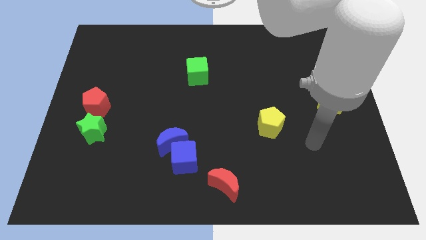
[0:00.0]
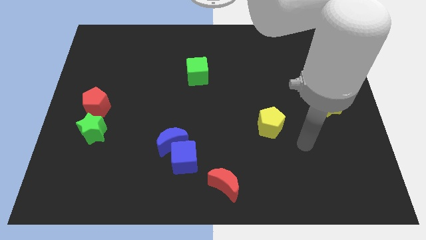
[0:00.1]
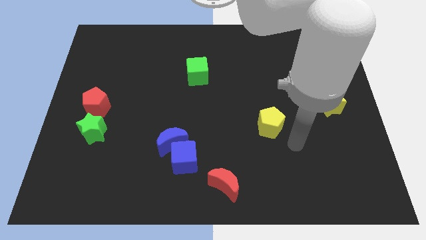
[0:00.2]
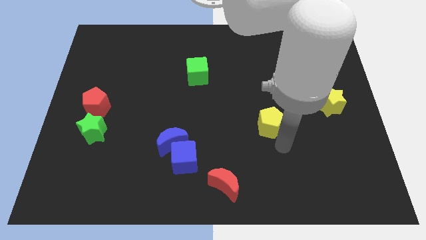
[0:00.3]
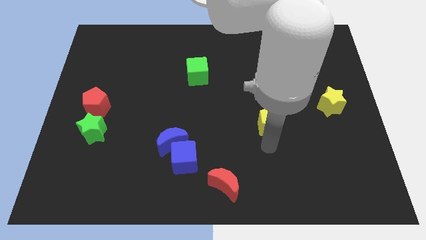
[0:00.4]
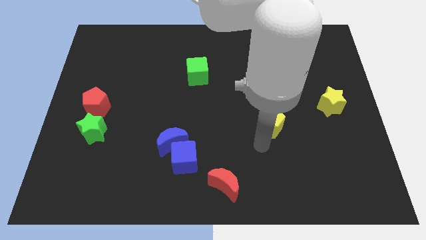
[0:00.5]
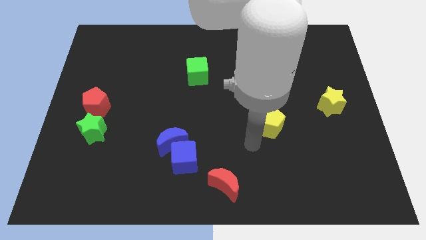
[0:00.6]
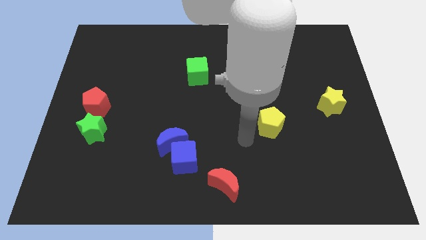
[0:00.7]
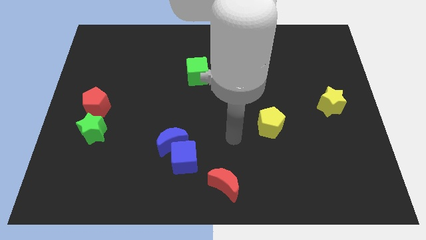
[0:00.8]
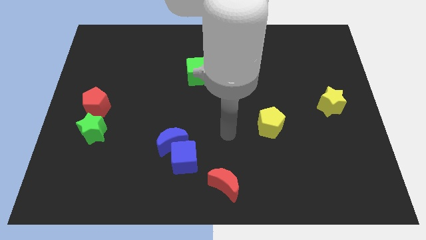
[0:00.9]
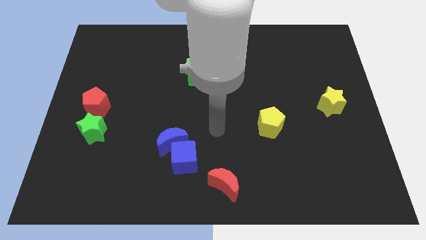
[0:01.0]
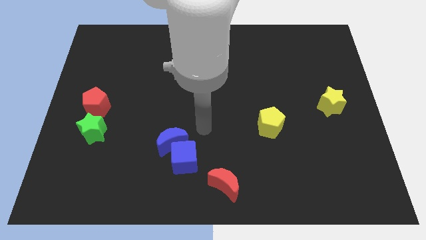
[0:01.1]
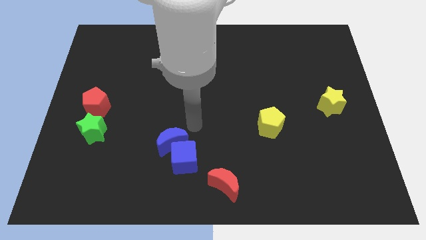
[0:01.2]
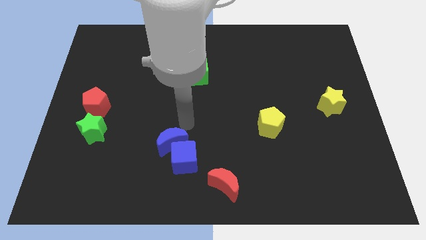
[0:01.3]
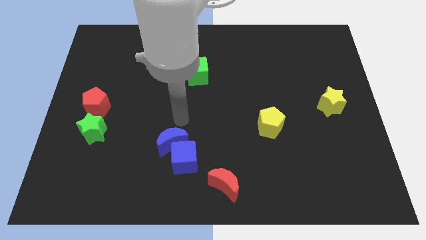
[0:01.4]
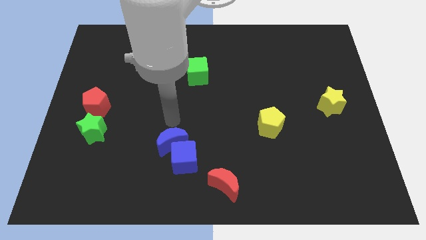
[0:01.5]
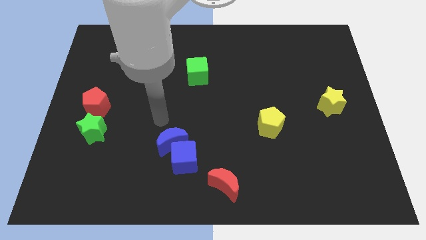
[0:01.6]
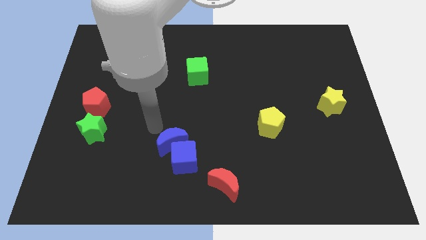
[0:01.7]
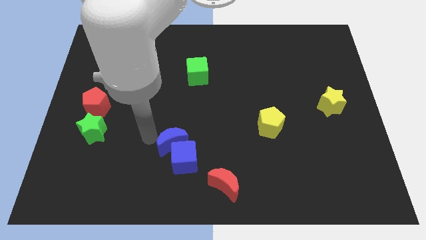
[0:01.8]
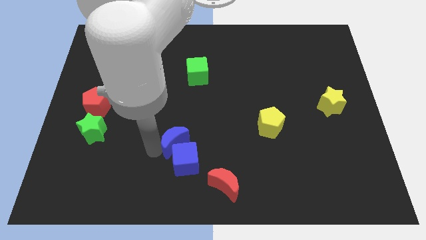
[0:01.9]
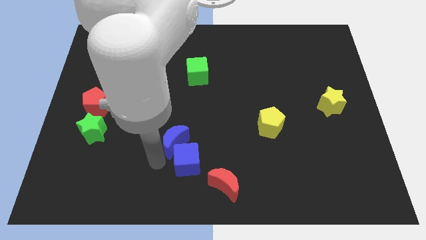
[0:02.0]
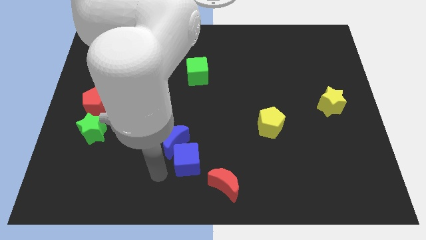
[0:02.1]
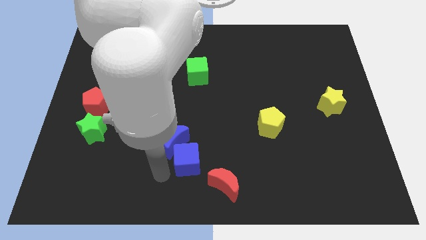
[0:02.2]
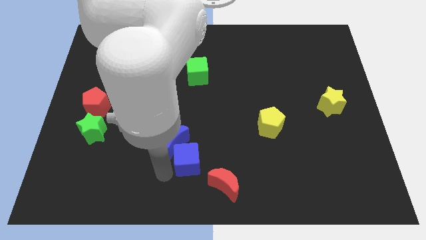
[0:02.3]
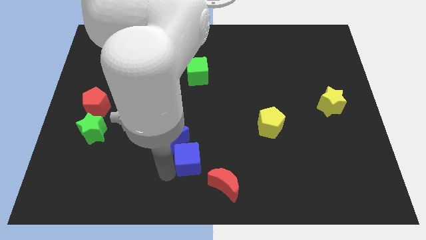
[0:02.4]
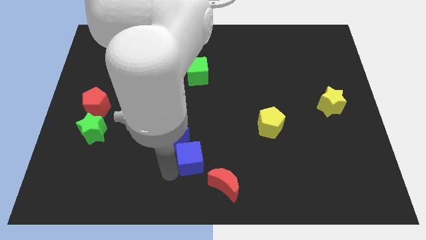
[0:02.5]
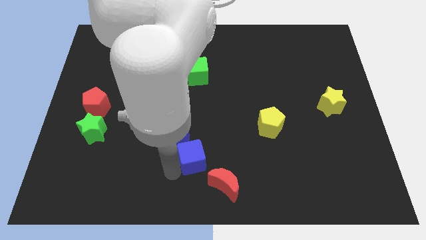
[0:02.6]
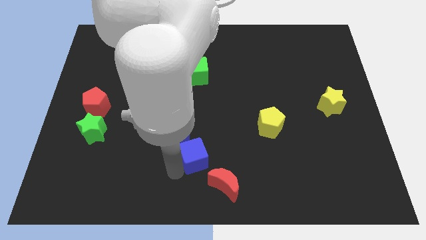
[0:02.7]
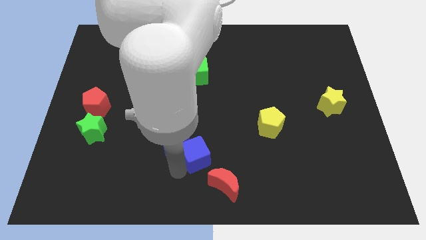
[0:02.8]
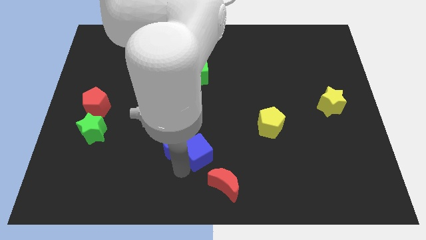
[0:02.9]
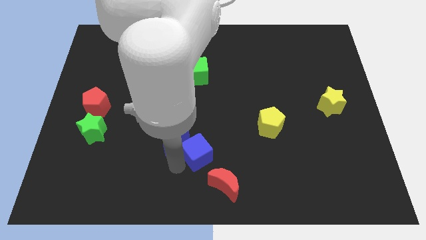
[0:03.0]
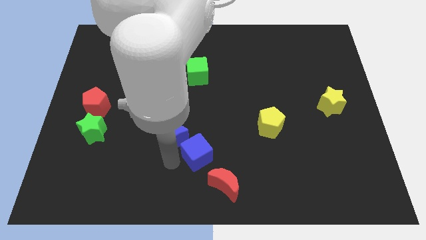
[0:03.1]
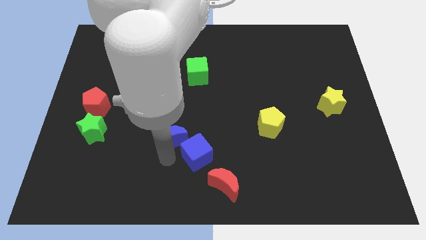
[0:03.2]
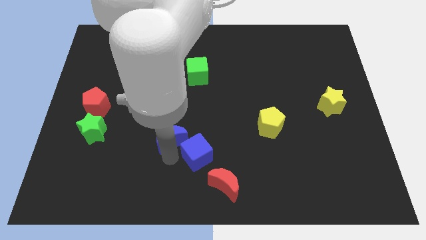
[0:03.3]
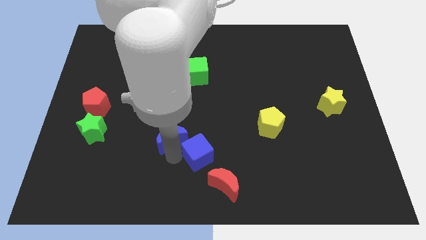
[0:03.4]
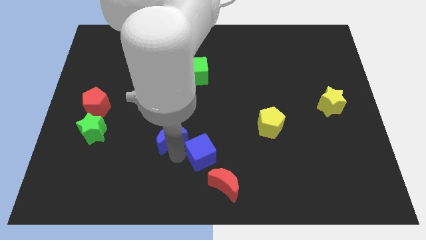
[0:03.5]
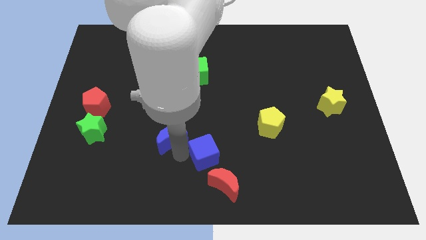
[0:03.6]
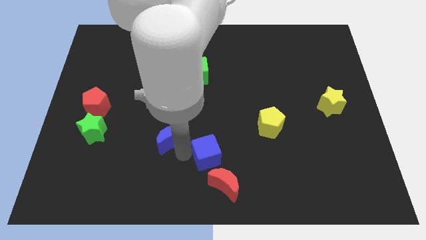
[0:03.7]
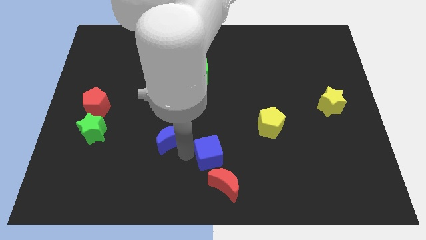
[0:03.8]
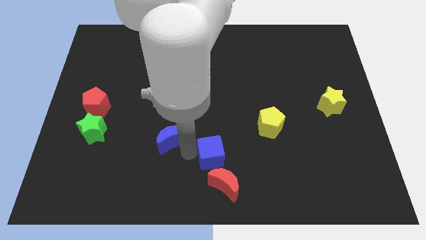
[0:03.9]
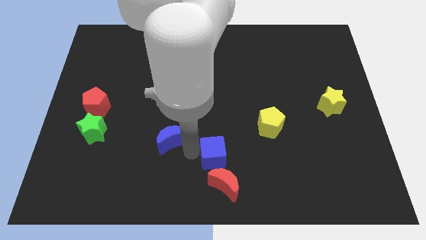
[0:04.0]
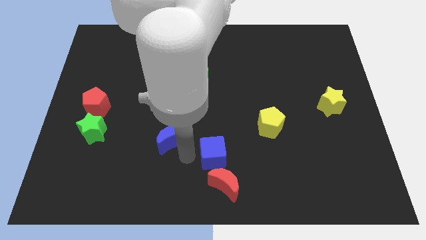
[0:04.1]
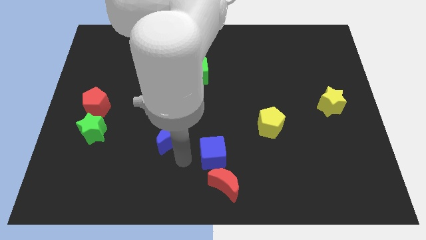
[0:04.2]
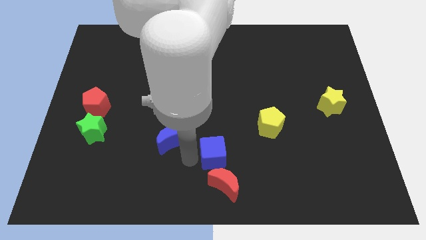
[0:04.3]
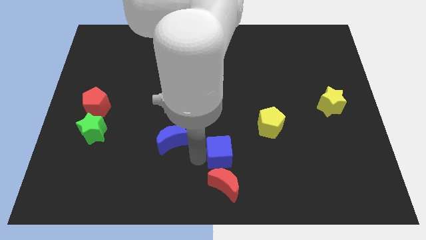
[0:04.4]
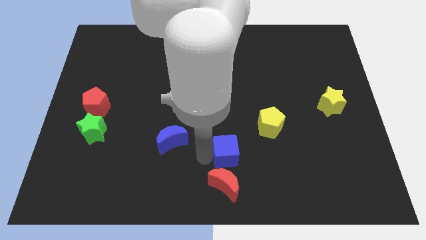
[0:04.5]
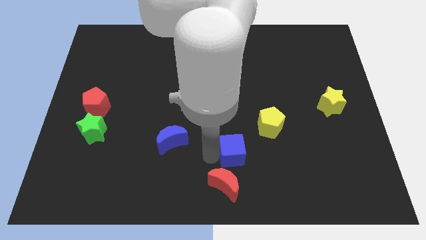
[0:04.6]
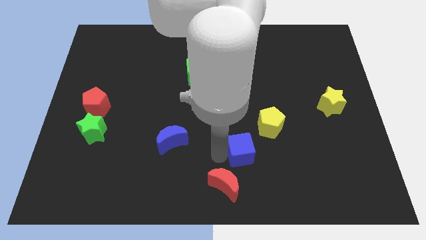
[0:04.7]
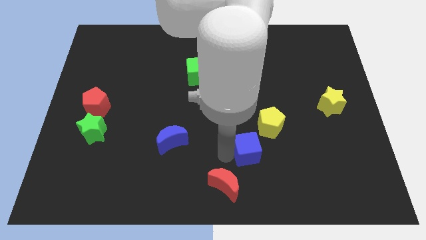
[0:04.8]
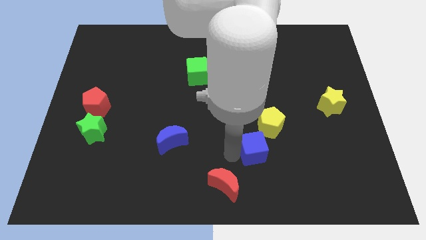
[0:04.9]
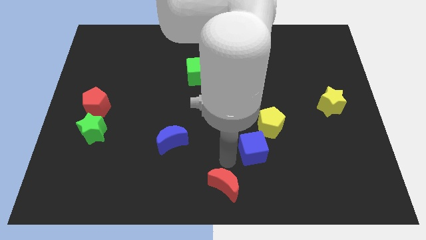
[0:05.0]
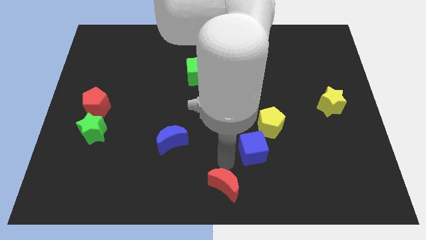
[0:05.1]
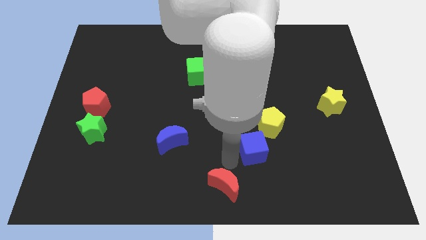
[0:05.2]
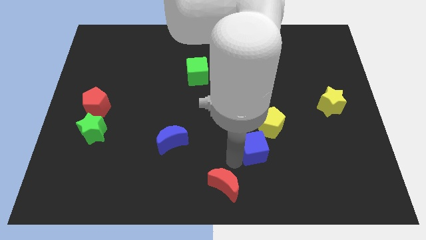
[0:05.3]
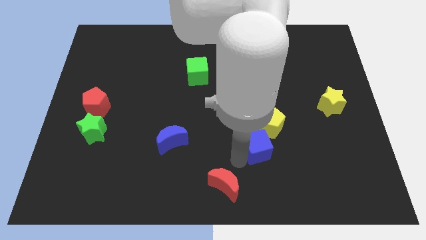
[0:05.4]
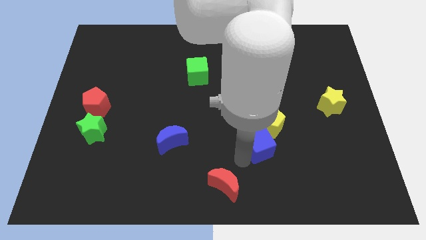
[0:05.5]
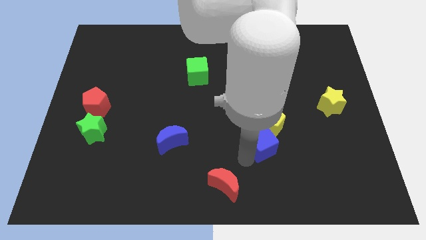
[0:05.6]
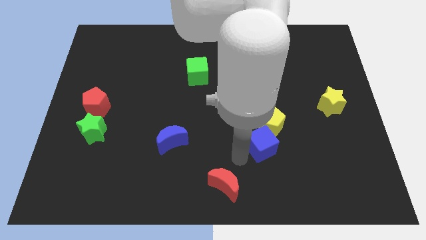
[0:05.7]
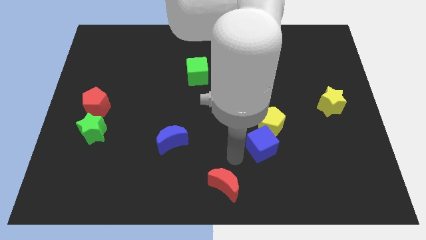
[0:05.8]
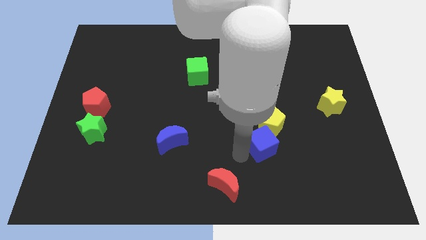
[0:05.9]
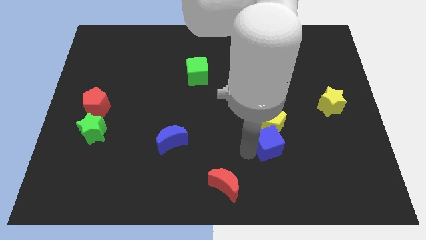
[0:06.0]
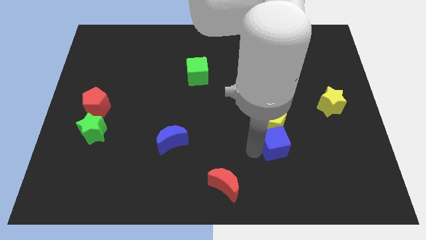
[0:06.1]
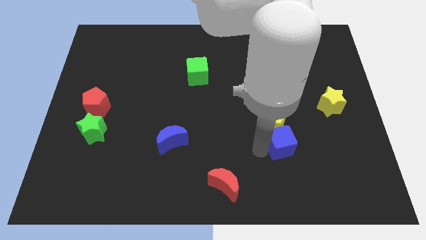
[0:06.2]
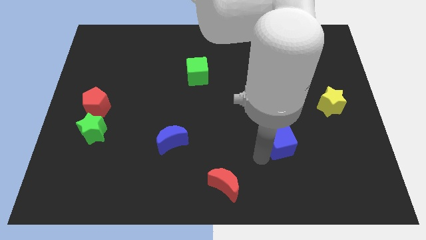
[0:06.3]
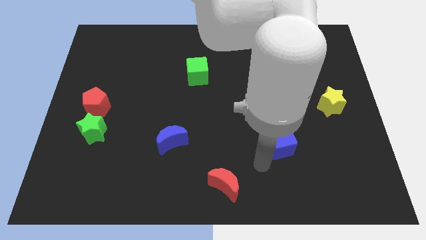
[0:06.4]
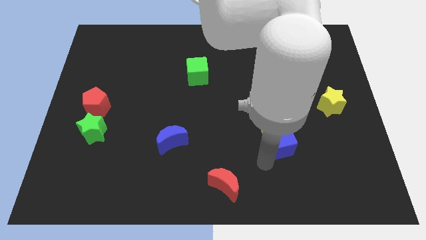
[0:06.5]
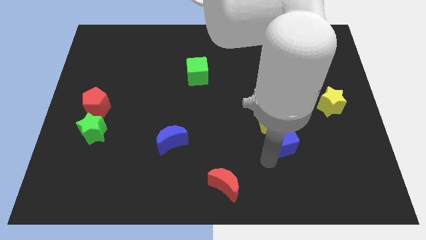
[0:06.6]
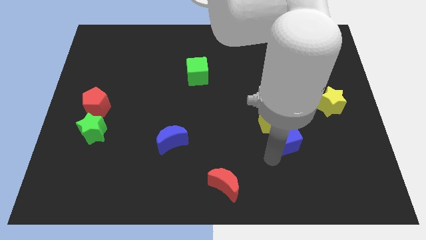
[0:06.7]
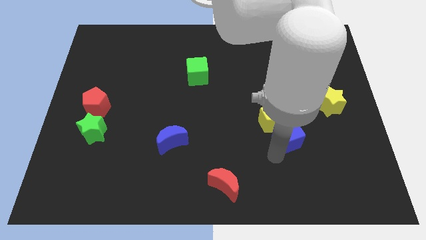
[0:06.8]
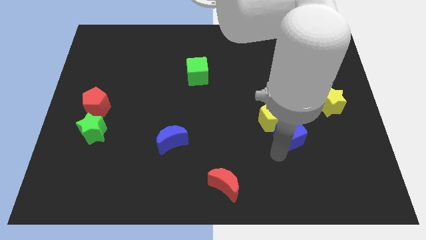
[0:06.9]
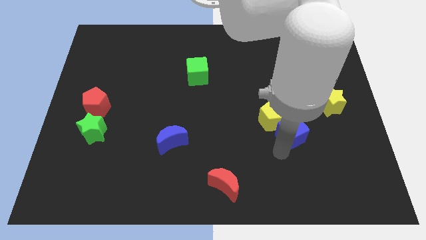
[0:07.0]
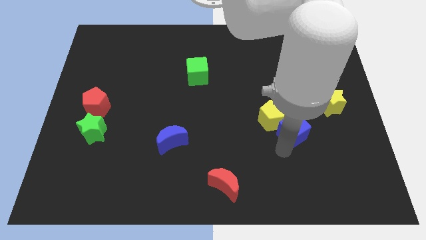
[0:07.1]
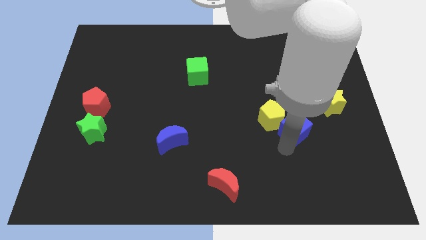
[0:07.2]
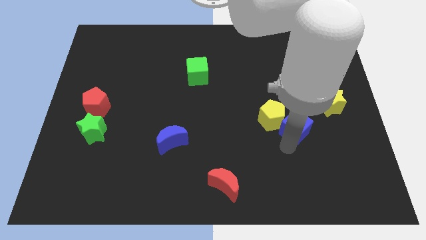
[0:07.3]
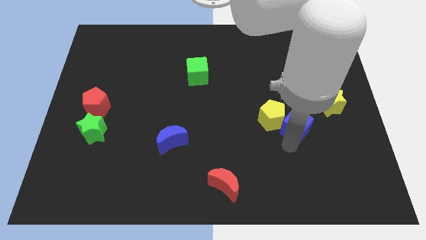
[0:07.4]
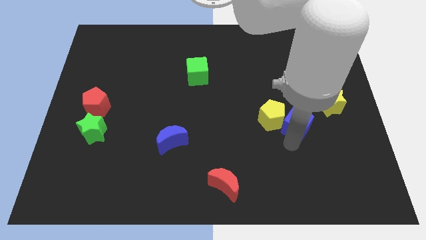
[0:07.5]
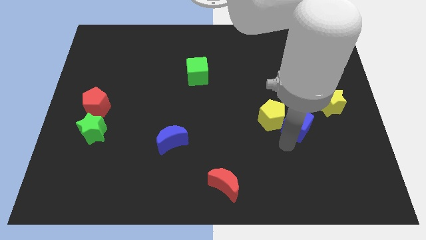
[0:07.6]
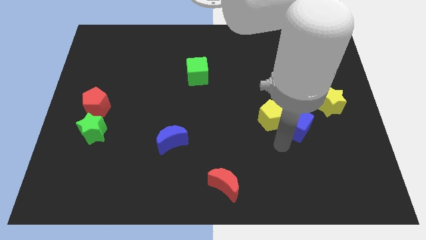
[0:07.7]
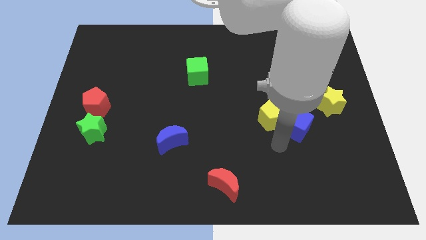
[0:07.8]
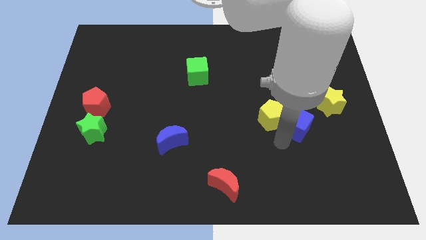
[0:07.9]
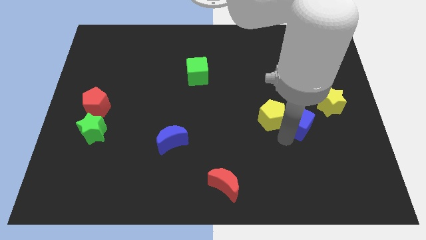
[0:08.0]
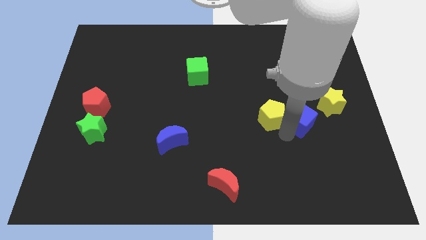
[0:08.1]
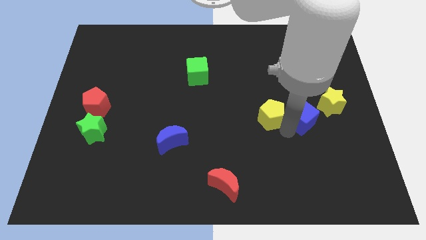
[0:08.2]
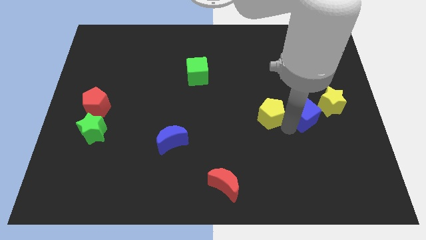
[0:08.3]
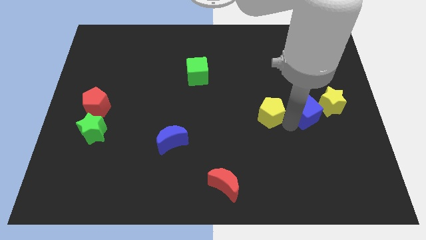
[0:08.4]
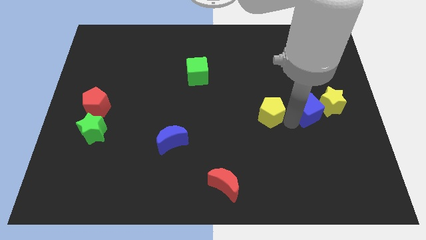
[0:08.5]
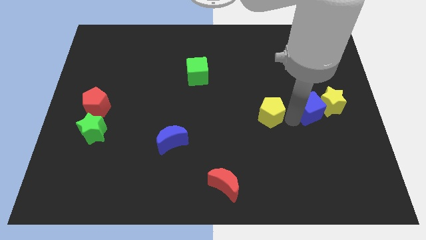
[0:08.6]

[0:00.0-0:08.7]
push the blue cube towards the yellow star
